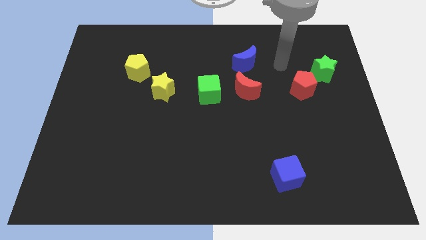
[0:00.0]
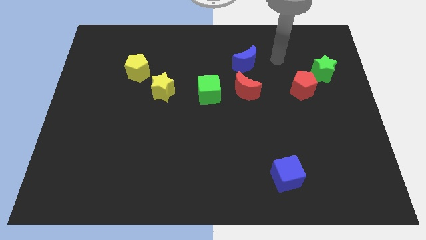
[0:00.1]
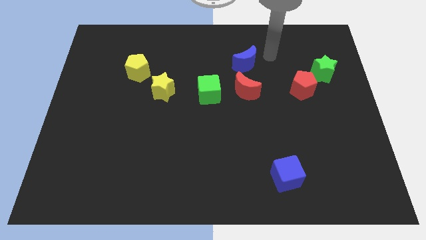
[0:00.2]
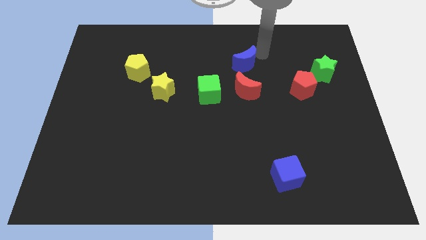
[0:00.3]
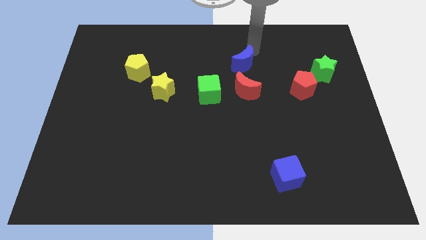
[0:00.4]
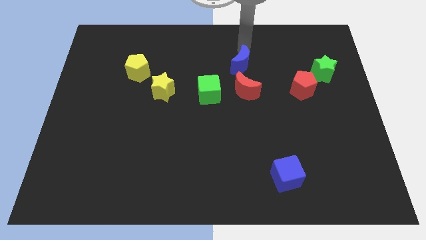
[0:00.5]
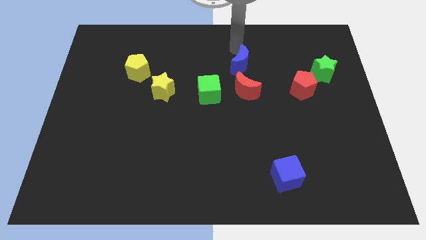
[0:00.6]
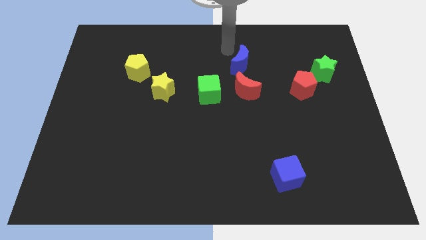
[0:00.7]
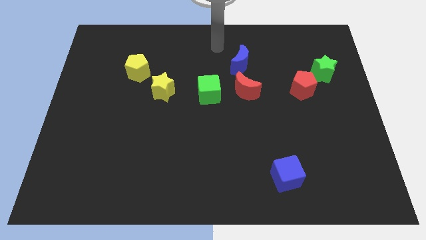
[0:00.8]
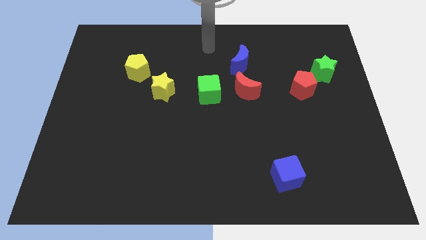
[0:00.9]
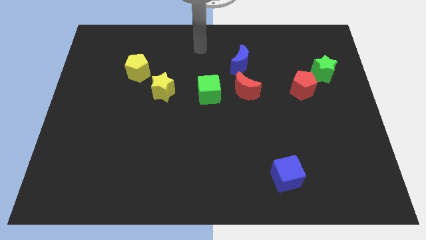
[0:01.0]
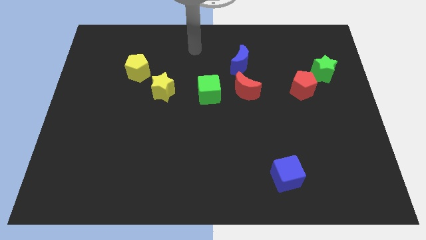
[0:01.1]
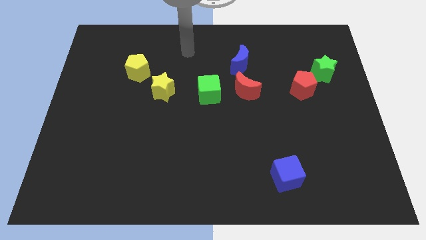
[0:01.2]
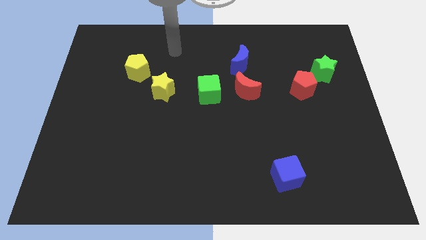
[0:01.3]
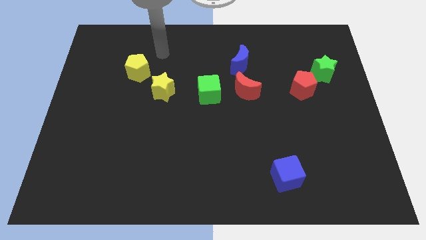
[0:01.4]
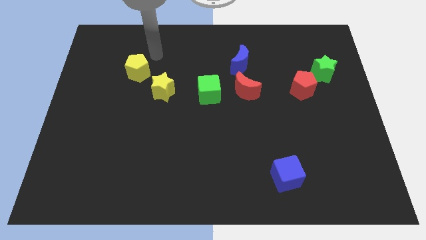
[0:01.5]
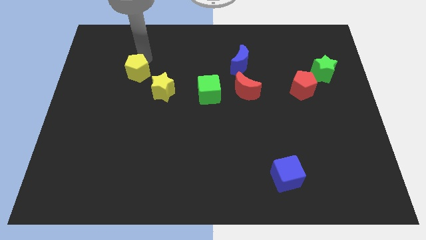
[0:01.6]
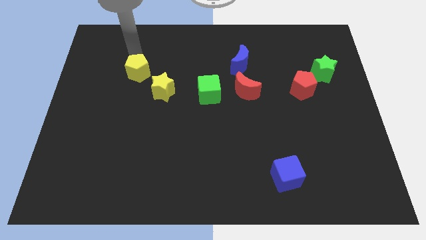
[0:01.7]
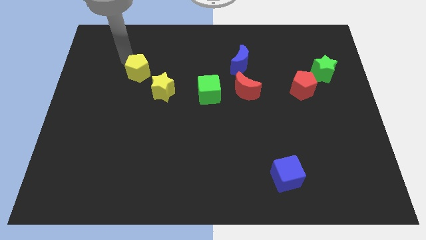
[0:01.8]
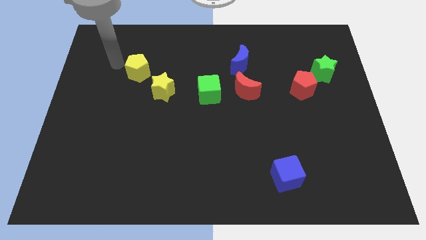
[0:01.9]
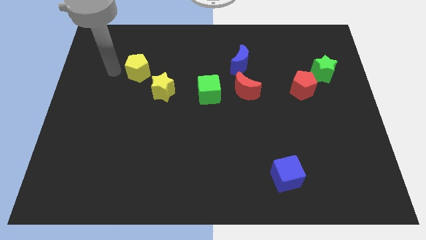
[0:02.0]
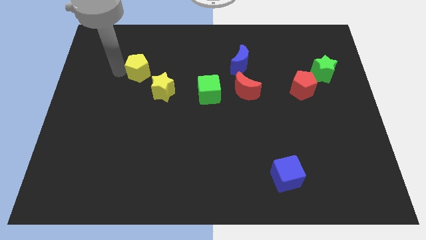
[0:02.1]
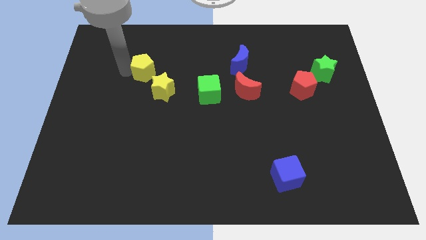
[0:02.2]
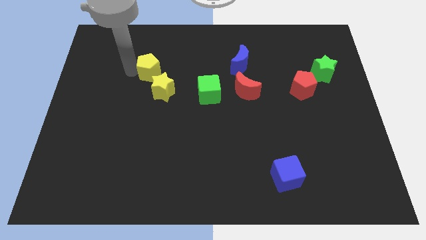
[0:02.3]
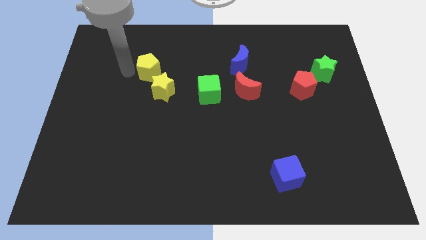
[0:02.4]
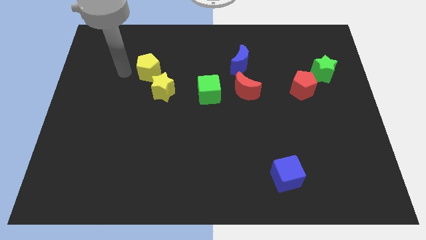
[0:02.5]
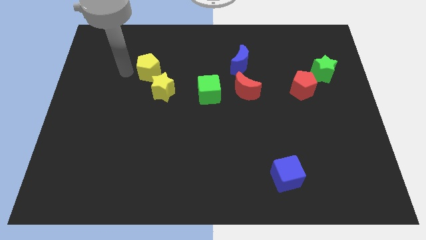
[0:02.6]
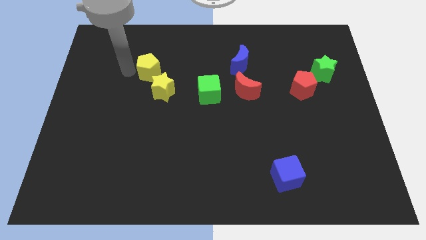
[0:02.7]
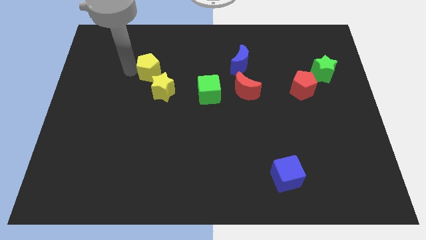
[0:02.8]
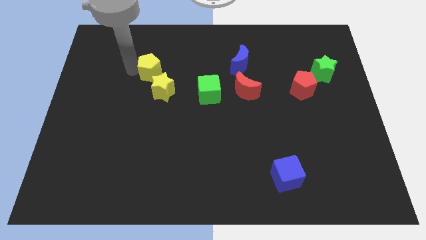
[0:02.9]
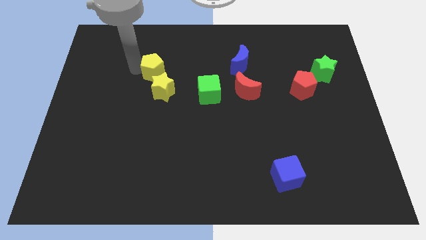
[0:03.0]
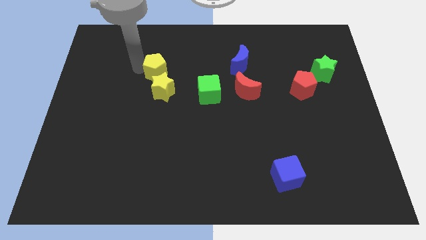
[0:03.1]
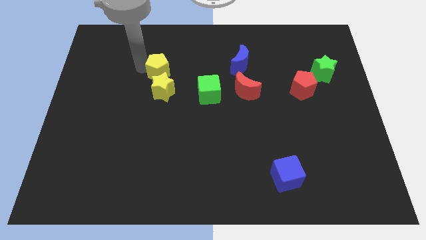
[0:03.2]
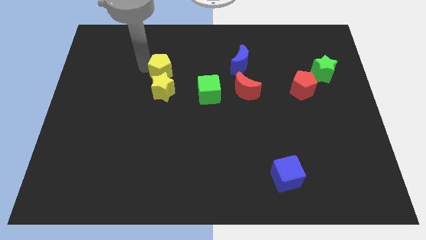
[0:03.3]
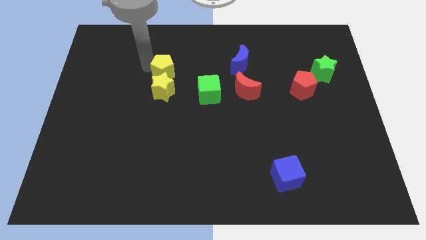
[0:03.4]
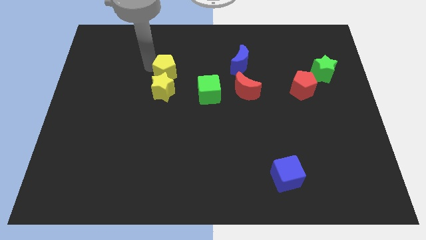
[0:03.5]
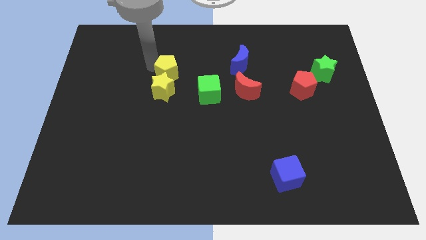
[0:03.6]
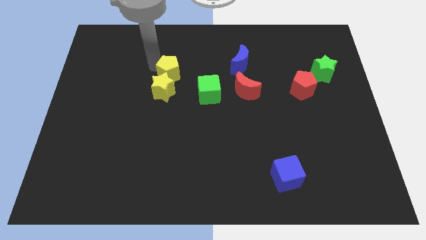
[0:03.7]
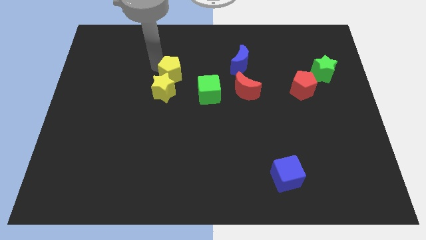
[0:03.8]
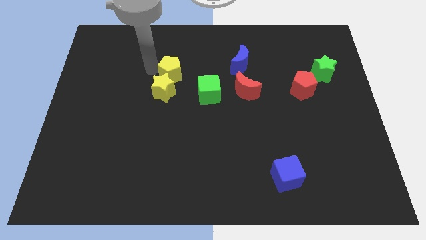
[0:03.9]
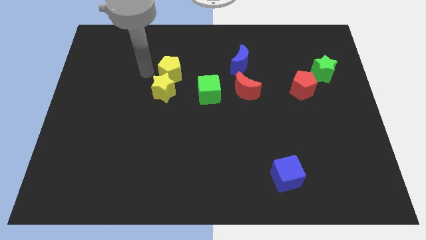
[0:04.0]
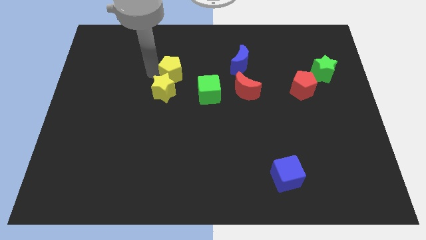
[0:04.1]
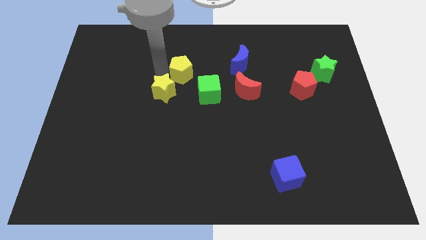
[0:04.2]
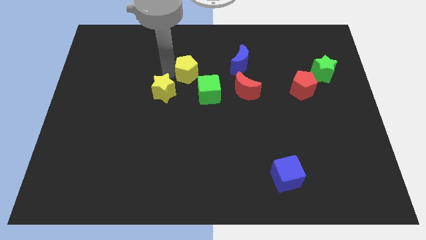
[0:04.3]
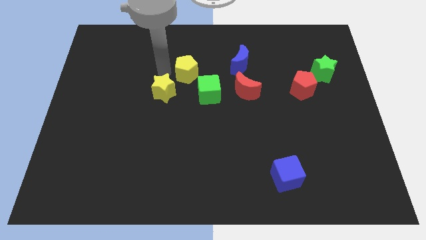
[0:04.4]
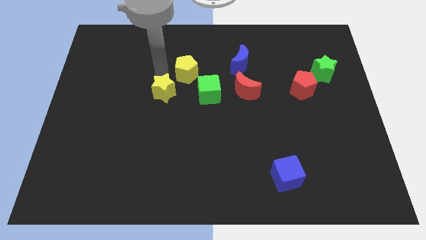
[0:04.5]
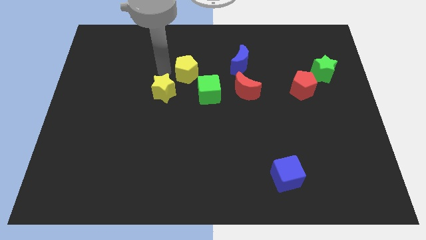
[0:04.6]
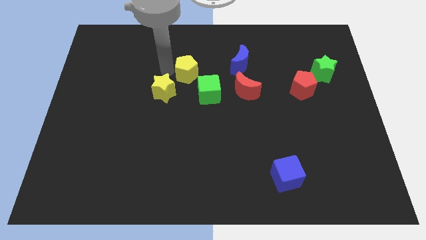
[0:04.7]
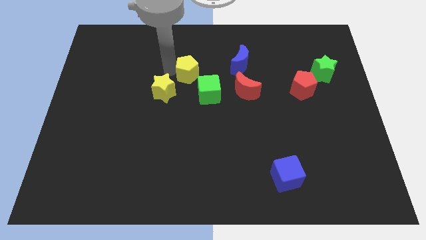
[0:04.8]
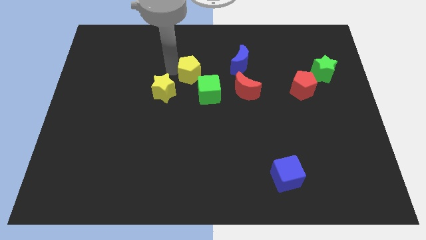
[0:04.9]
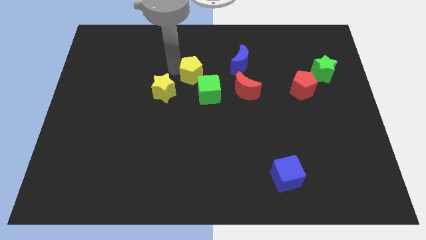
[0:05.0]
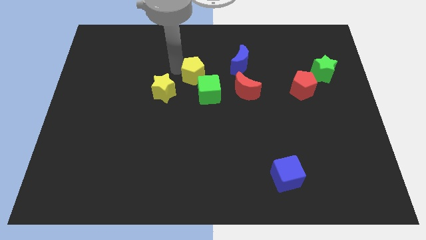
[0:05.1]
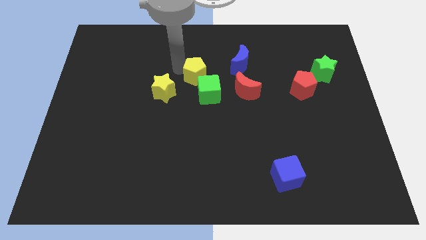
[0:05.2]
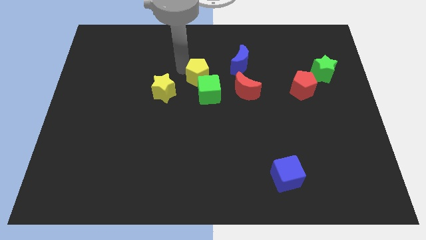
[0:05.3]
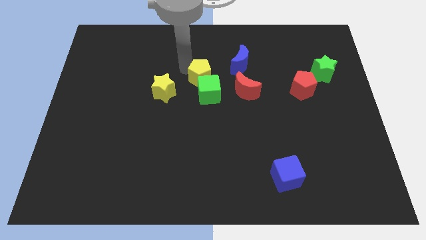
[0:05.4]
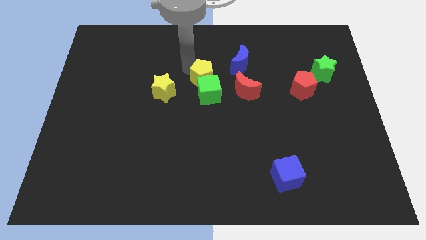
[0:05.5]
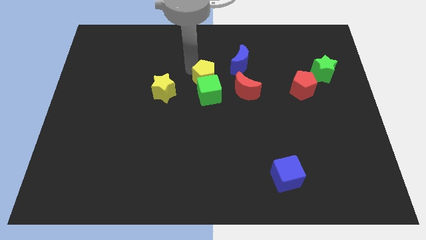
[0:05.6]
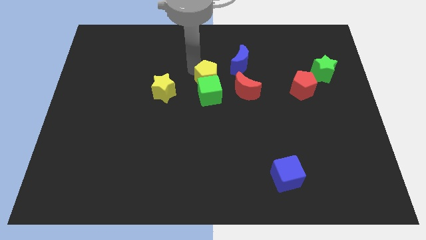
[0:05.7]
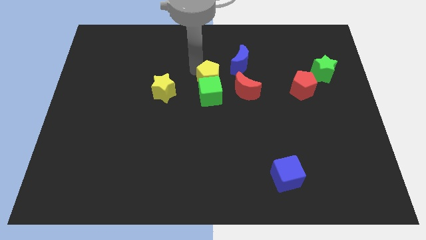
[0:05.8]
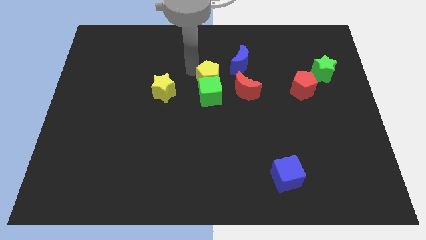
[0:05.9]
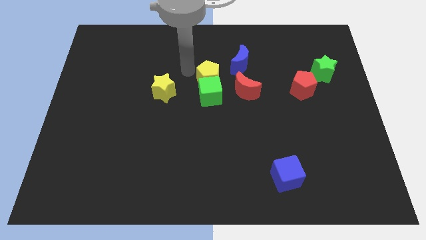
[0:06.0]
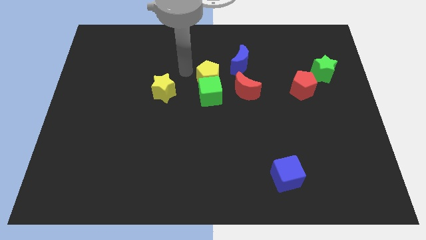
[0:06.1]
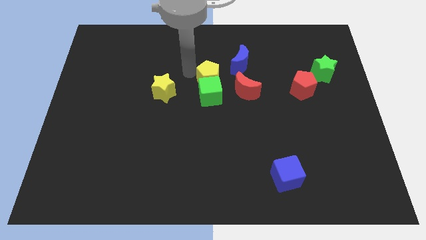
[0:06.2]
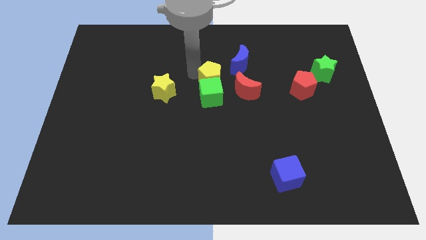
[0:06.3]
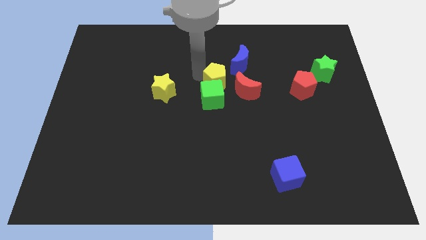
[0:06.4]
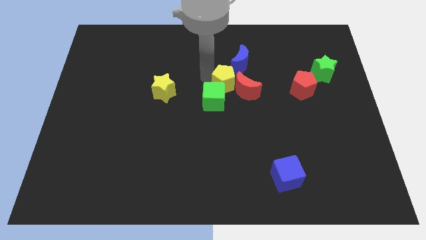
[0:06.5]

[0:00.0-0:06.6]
move the yellow pentagon close to the red moon
